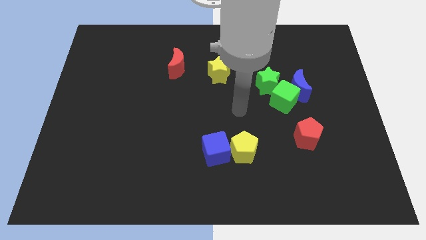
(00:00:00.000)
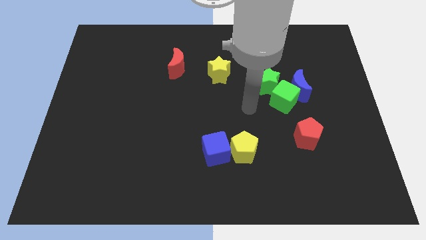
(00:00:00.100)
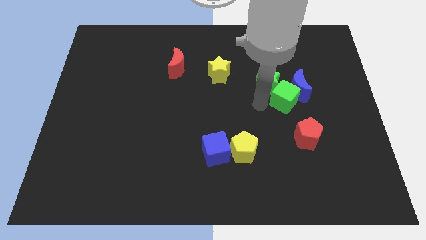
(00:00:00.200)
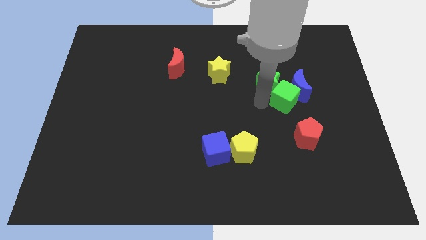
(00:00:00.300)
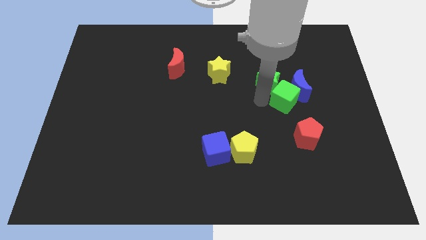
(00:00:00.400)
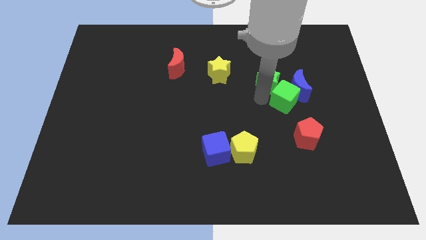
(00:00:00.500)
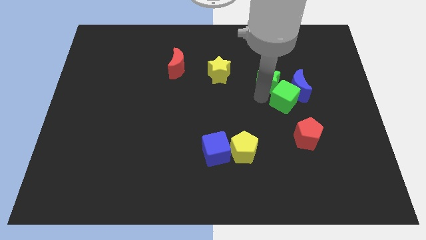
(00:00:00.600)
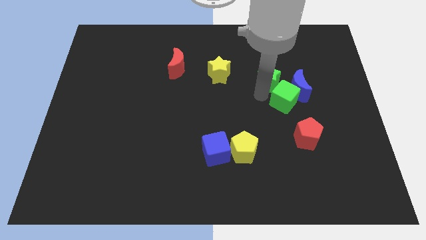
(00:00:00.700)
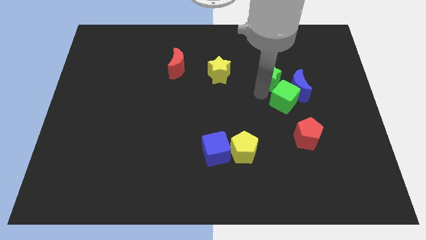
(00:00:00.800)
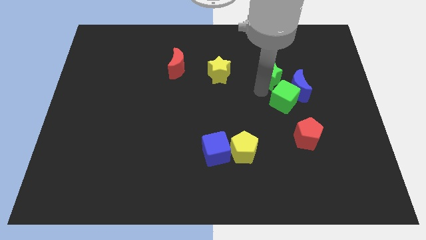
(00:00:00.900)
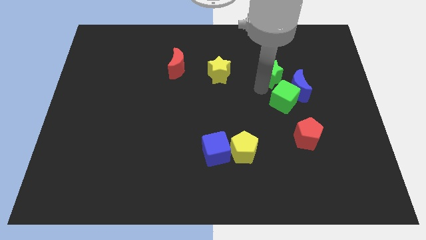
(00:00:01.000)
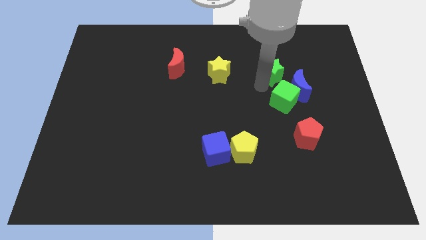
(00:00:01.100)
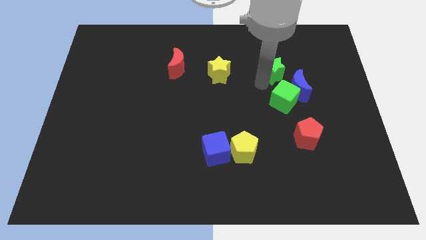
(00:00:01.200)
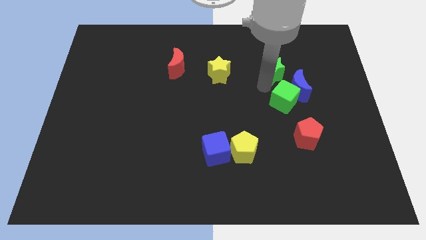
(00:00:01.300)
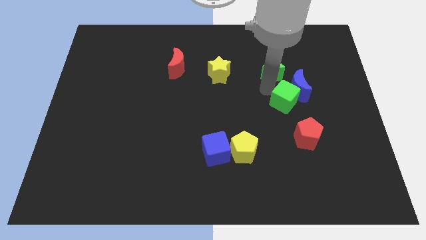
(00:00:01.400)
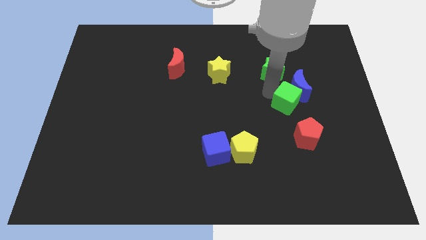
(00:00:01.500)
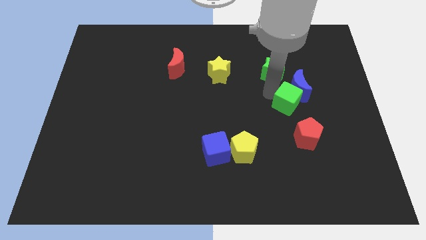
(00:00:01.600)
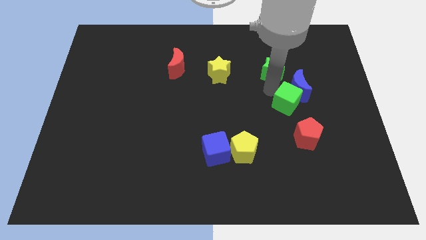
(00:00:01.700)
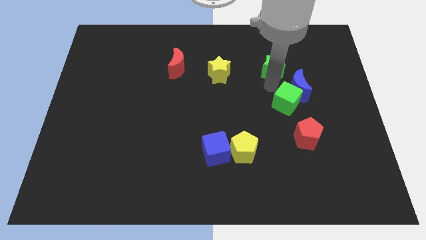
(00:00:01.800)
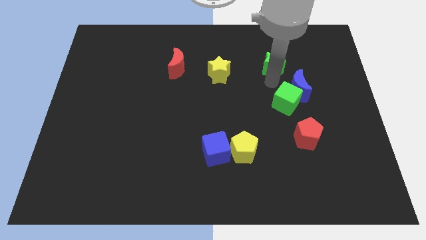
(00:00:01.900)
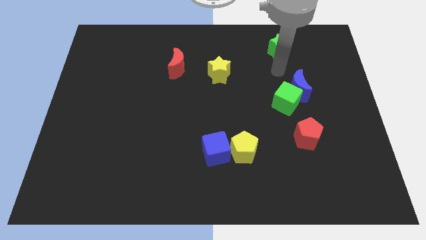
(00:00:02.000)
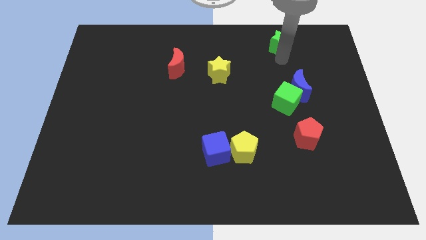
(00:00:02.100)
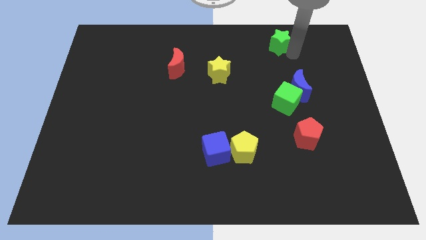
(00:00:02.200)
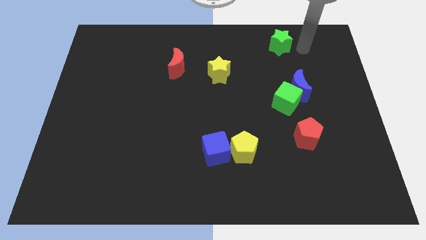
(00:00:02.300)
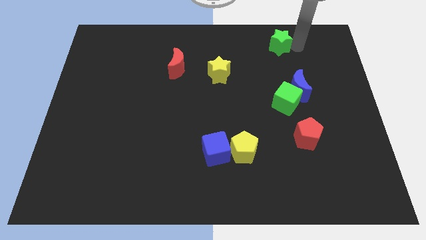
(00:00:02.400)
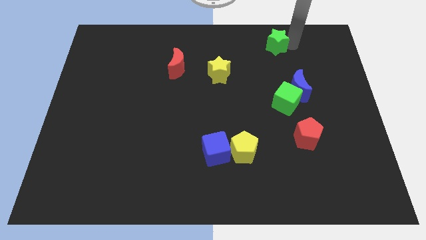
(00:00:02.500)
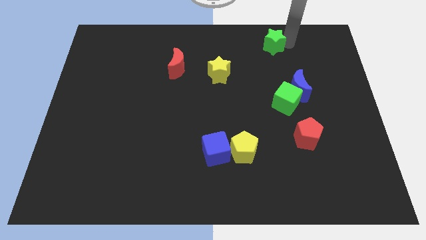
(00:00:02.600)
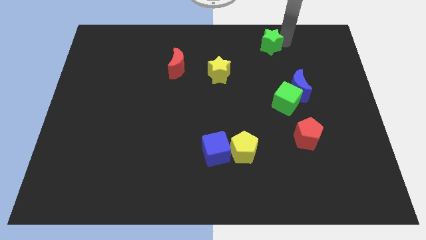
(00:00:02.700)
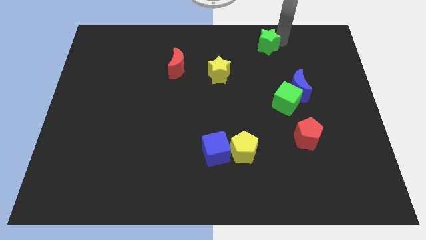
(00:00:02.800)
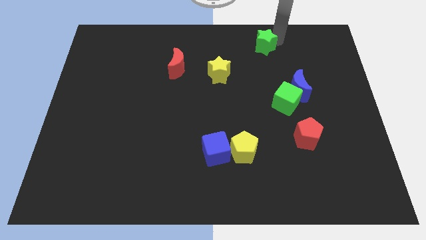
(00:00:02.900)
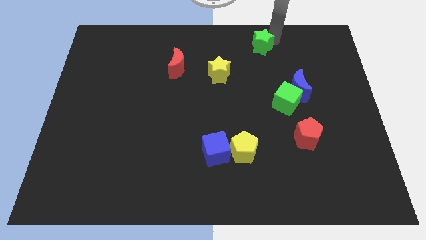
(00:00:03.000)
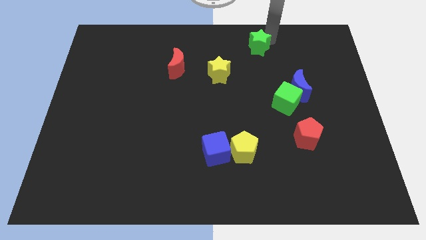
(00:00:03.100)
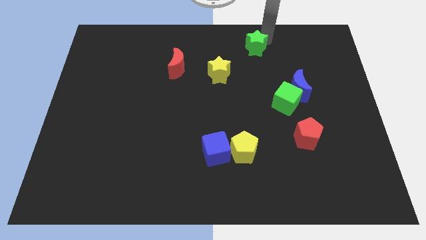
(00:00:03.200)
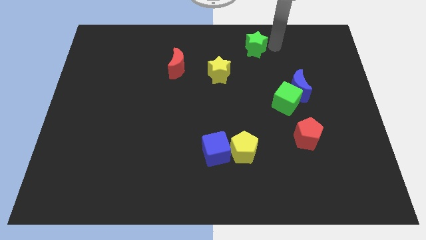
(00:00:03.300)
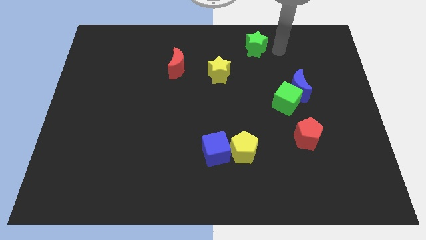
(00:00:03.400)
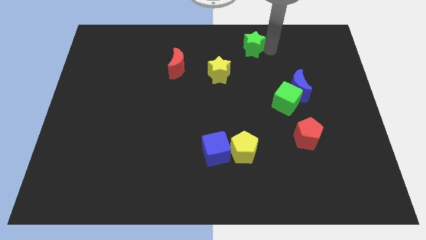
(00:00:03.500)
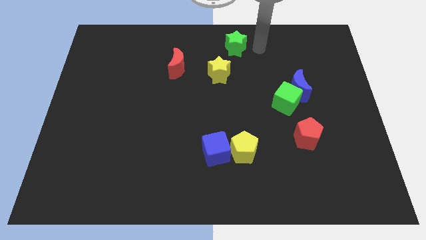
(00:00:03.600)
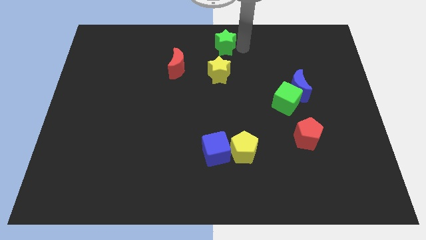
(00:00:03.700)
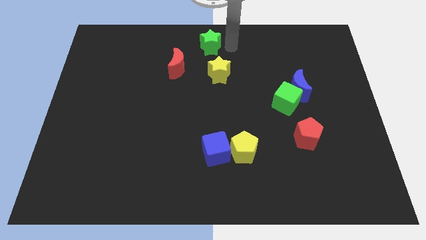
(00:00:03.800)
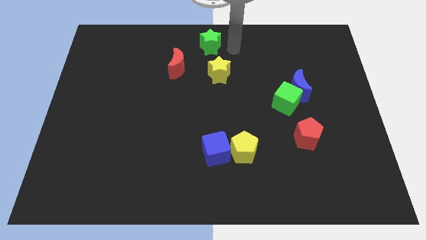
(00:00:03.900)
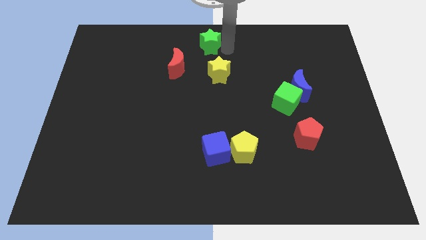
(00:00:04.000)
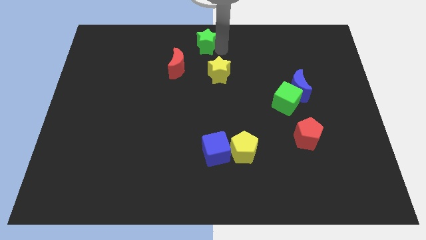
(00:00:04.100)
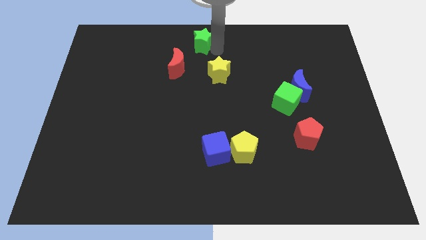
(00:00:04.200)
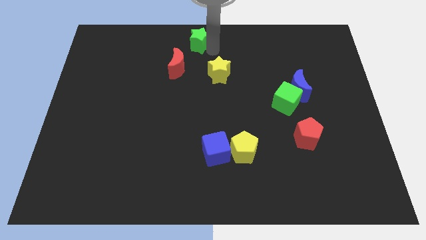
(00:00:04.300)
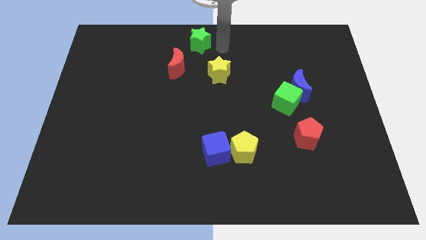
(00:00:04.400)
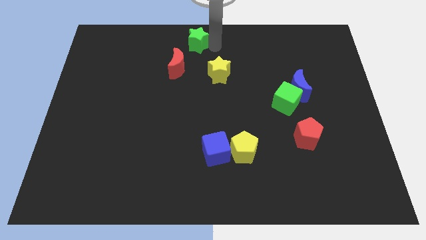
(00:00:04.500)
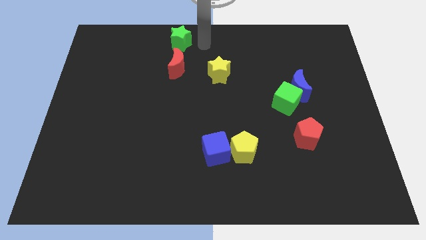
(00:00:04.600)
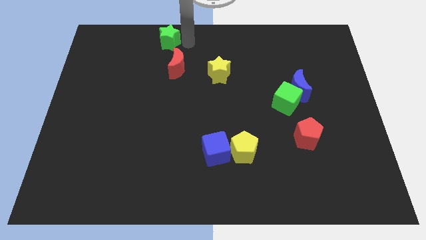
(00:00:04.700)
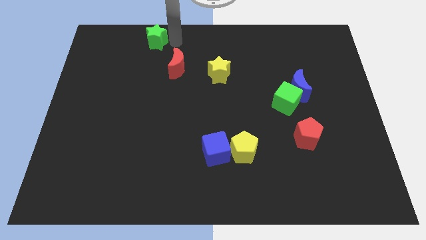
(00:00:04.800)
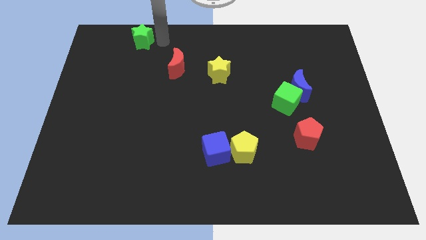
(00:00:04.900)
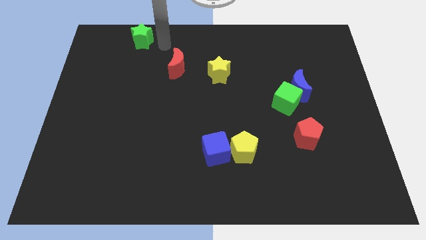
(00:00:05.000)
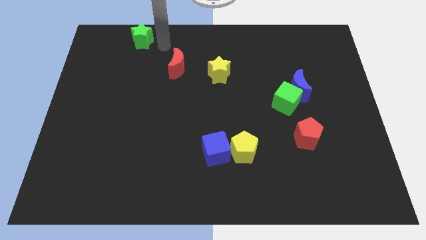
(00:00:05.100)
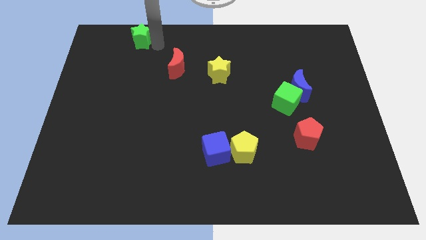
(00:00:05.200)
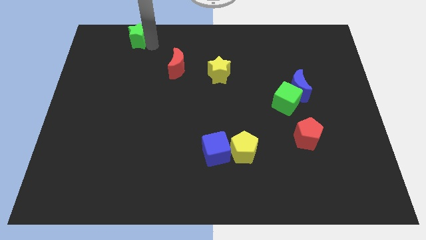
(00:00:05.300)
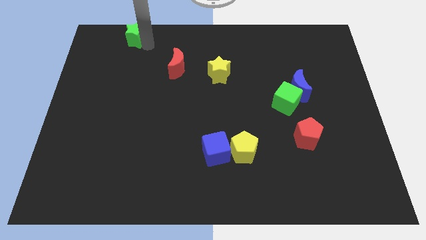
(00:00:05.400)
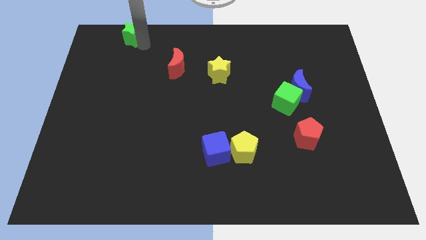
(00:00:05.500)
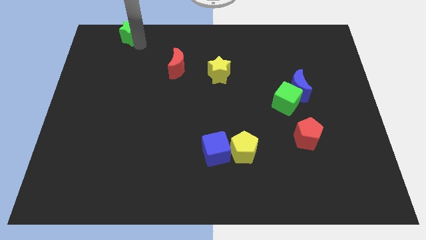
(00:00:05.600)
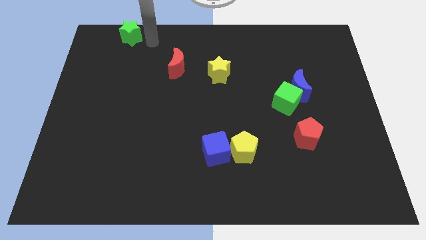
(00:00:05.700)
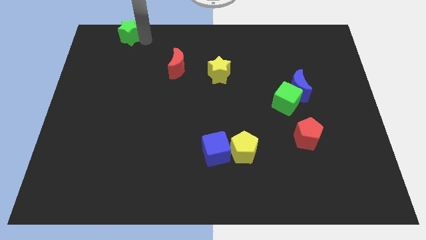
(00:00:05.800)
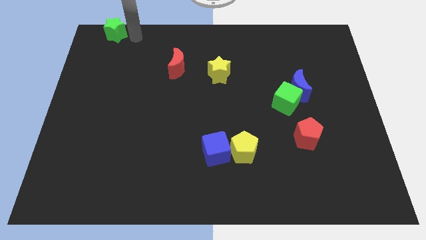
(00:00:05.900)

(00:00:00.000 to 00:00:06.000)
move the green star to the top left corner
